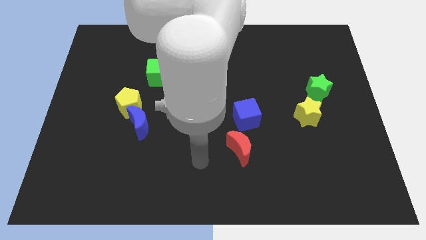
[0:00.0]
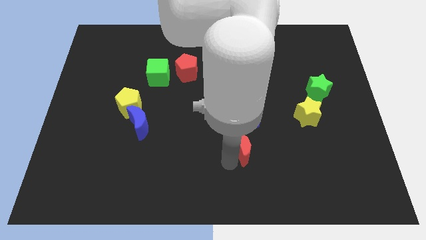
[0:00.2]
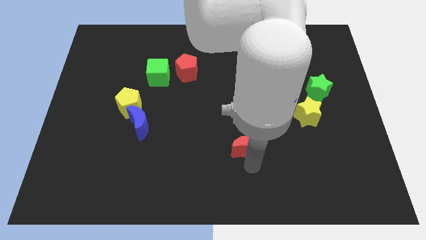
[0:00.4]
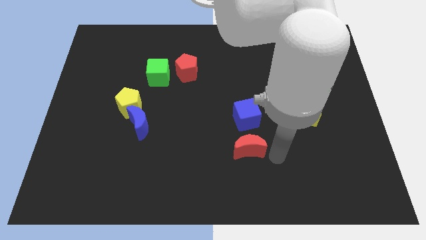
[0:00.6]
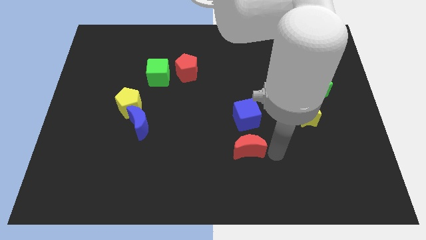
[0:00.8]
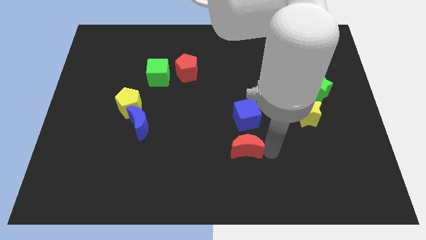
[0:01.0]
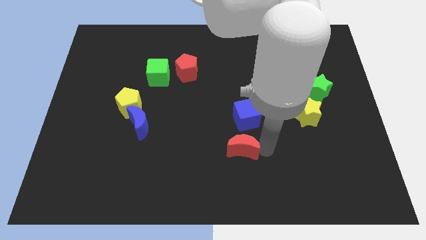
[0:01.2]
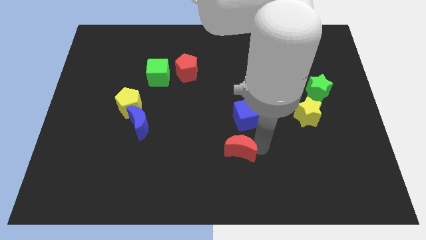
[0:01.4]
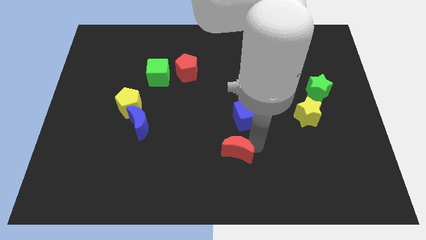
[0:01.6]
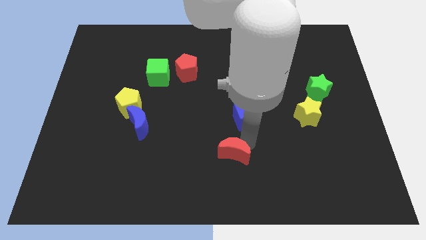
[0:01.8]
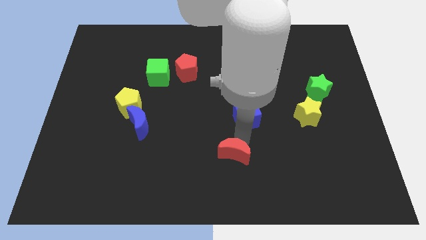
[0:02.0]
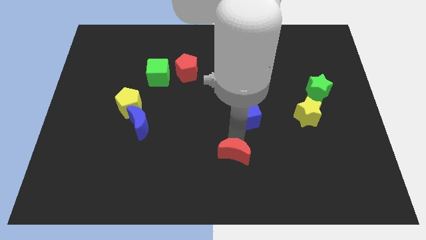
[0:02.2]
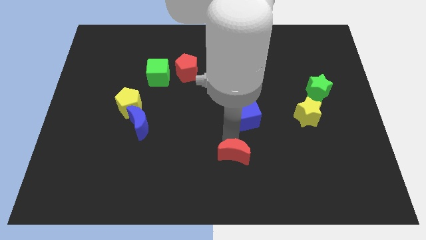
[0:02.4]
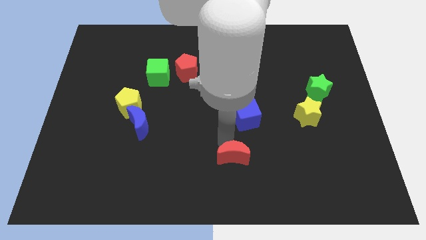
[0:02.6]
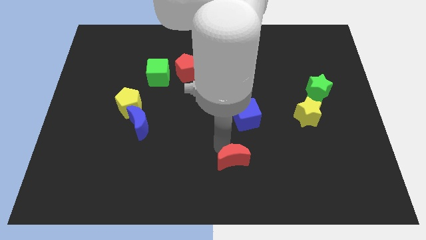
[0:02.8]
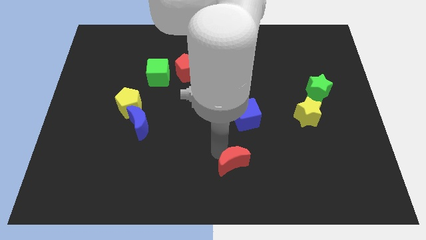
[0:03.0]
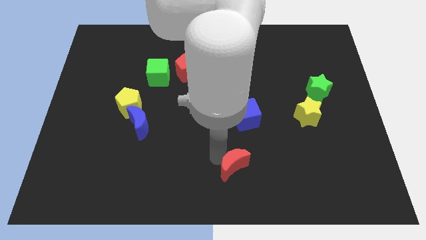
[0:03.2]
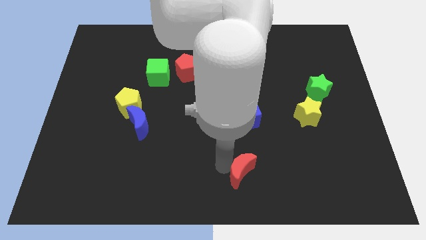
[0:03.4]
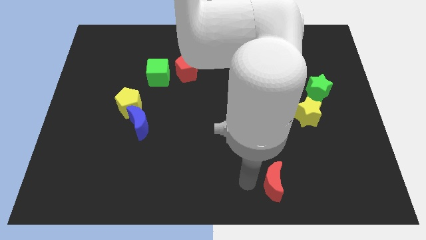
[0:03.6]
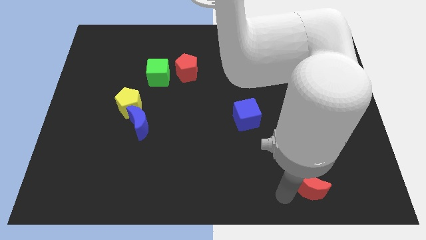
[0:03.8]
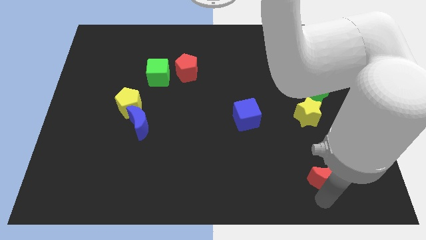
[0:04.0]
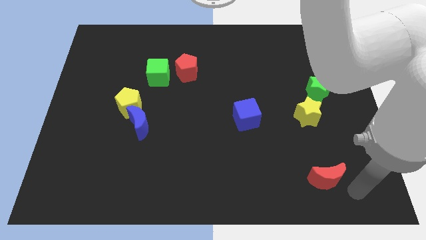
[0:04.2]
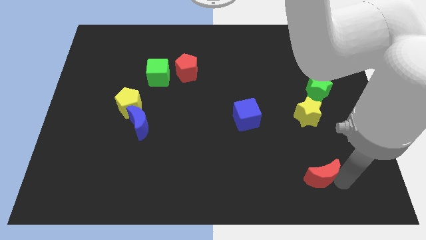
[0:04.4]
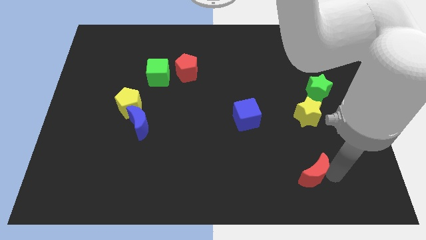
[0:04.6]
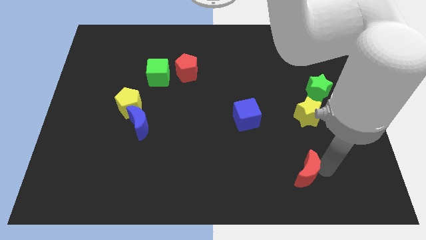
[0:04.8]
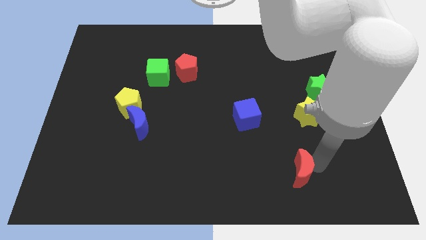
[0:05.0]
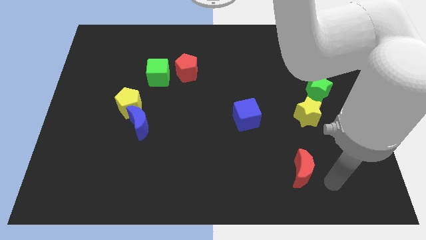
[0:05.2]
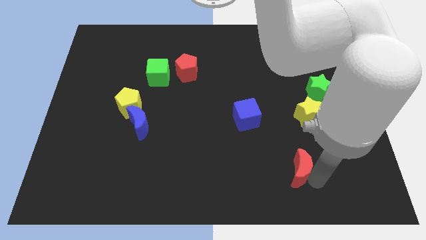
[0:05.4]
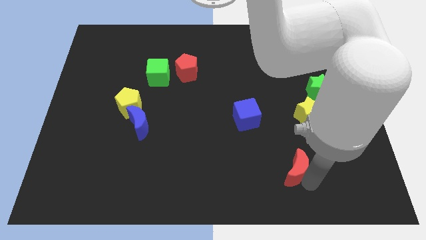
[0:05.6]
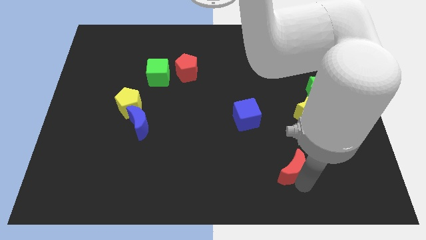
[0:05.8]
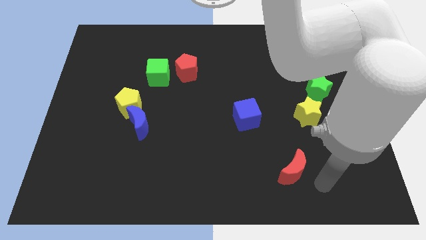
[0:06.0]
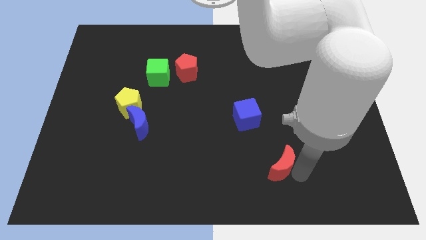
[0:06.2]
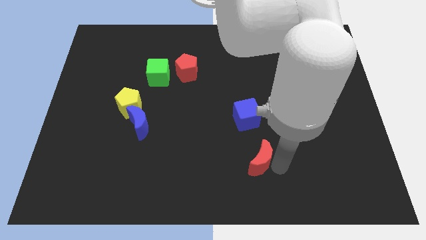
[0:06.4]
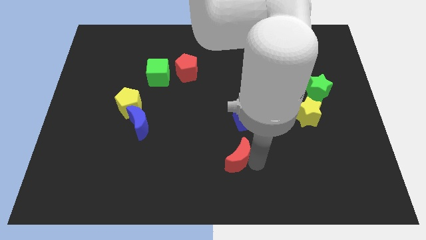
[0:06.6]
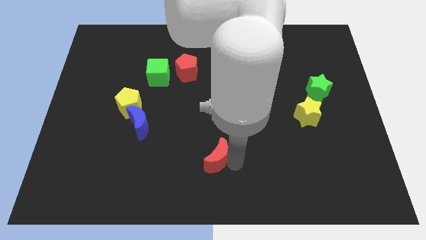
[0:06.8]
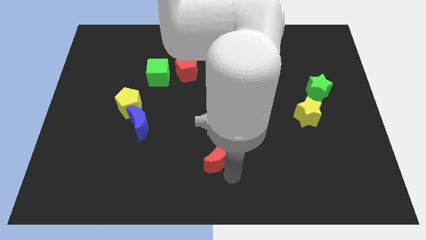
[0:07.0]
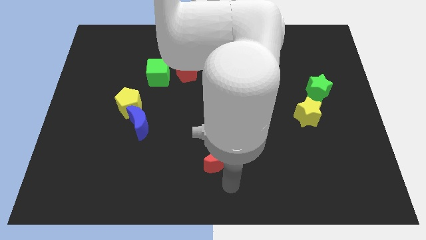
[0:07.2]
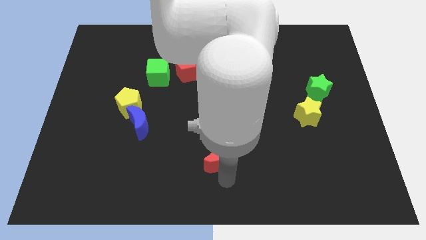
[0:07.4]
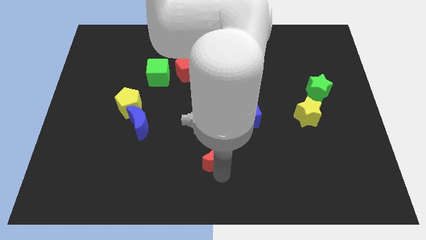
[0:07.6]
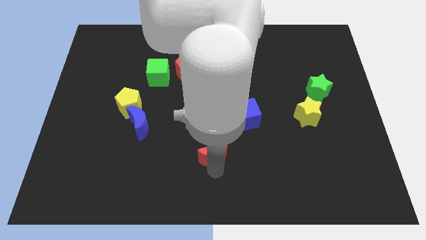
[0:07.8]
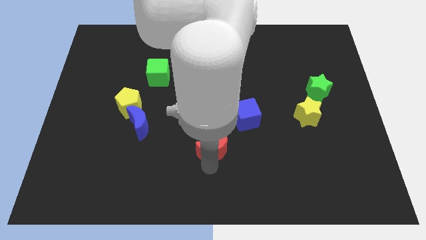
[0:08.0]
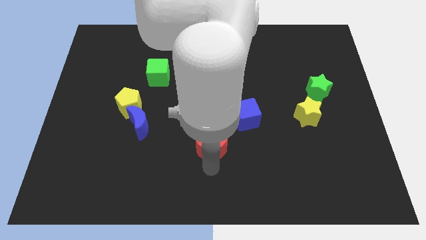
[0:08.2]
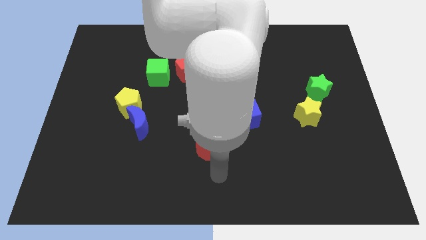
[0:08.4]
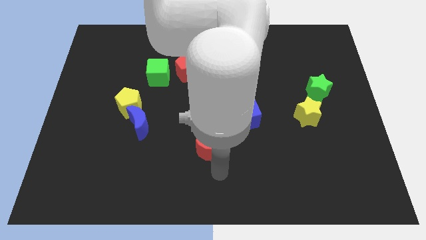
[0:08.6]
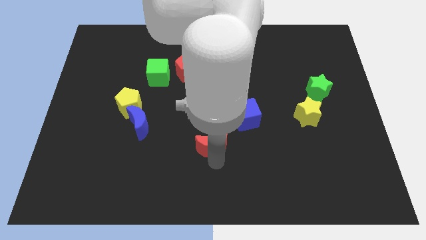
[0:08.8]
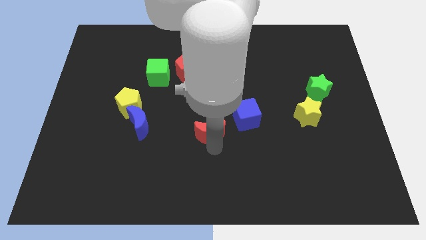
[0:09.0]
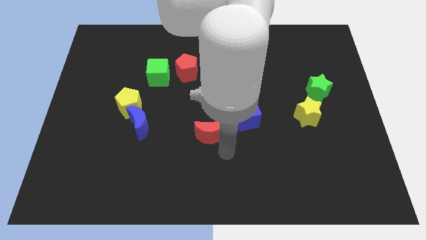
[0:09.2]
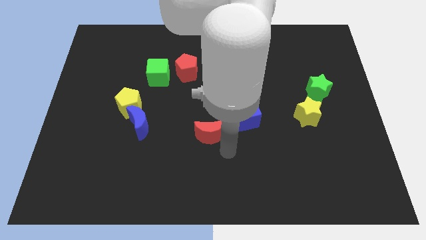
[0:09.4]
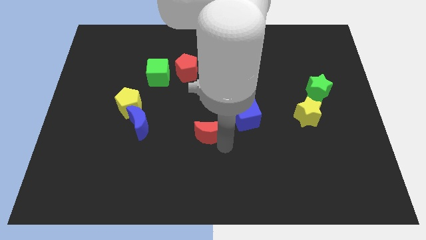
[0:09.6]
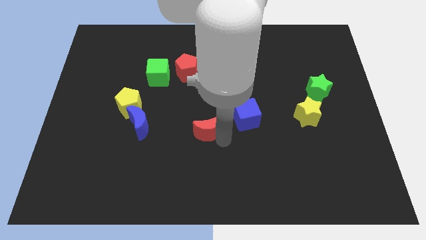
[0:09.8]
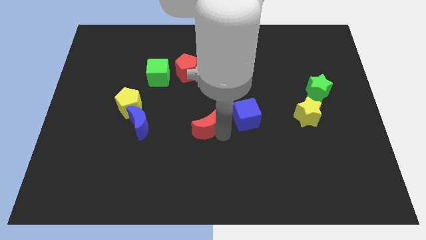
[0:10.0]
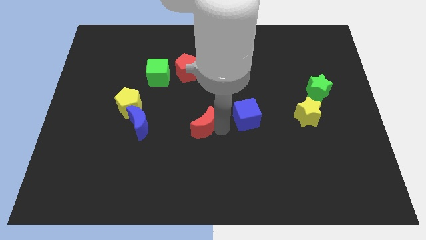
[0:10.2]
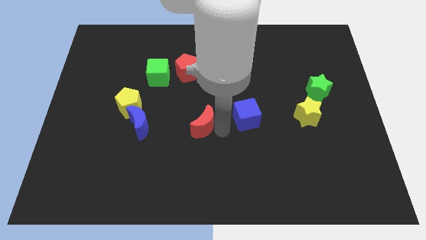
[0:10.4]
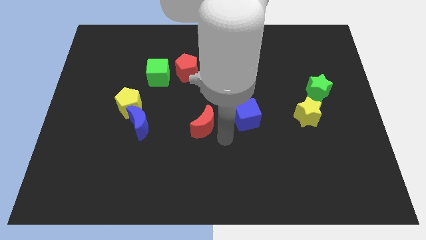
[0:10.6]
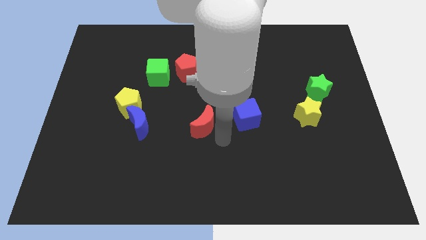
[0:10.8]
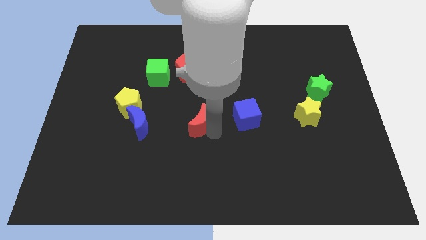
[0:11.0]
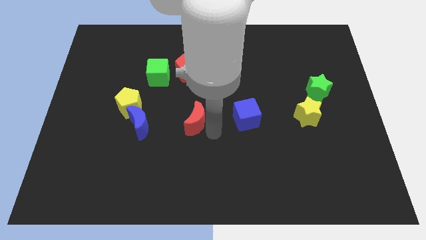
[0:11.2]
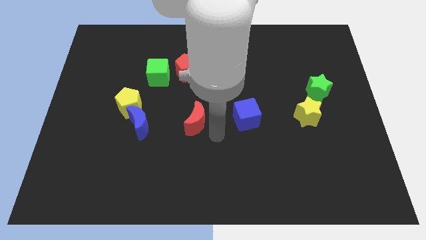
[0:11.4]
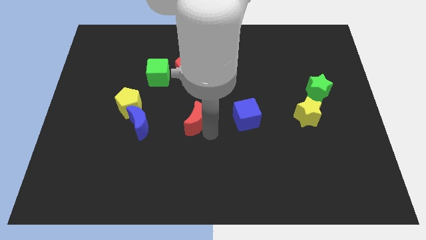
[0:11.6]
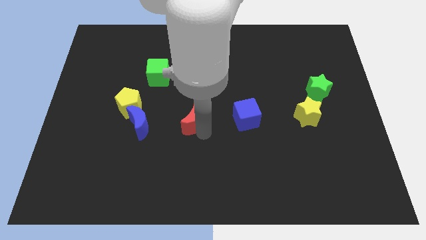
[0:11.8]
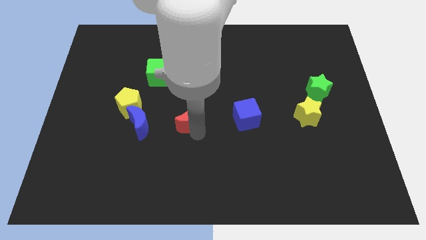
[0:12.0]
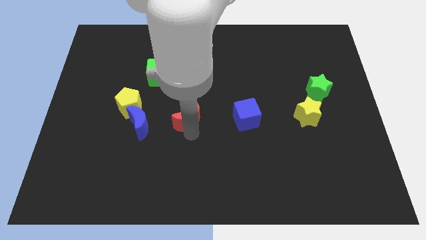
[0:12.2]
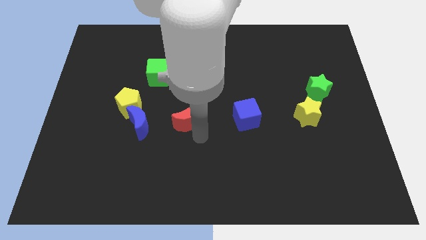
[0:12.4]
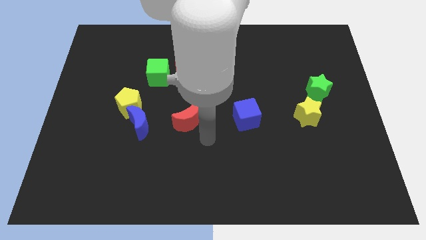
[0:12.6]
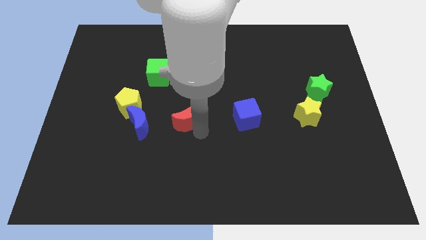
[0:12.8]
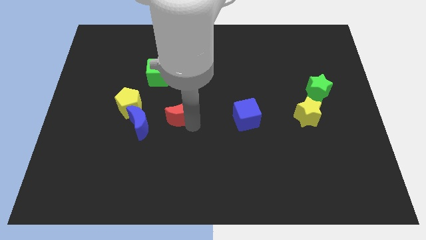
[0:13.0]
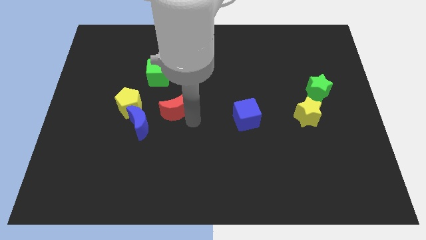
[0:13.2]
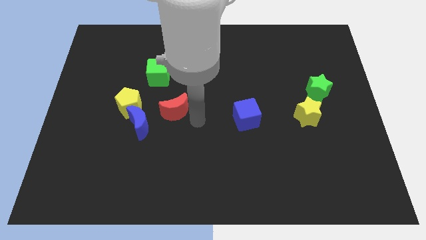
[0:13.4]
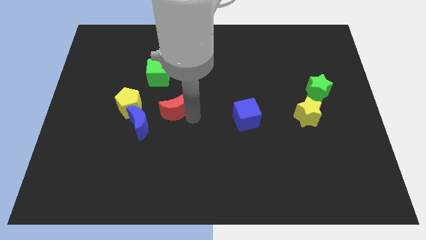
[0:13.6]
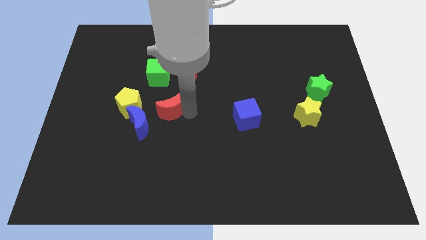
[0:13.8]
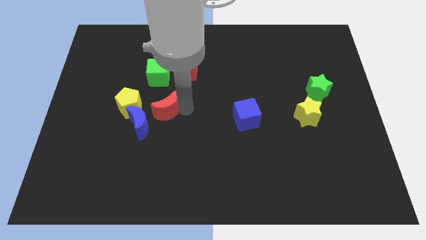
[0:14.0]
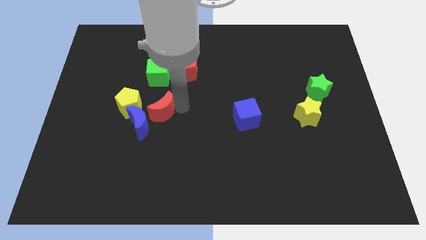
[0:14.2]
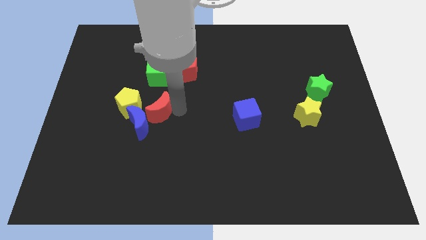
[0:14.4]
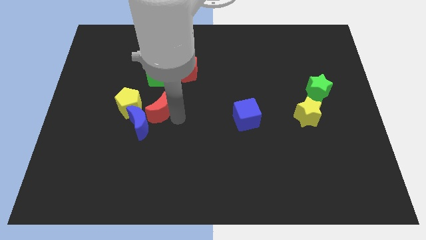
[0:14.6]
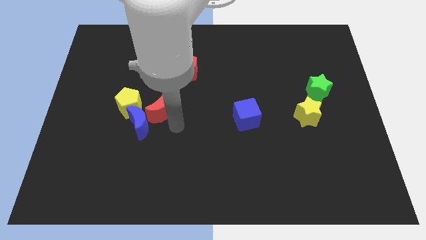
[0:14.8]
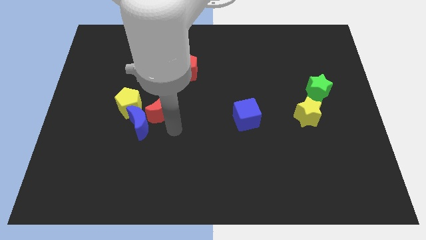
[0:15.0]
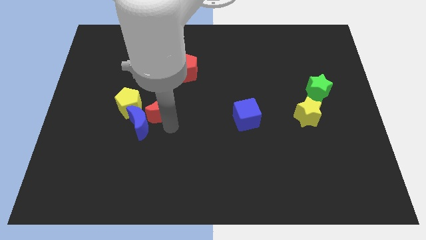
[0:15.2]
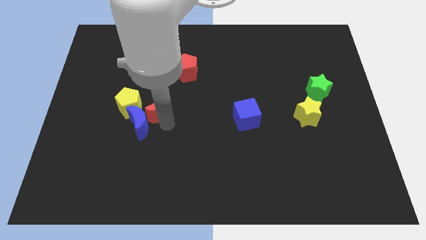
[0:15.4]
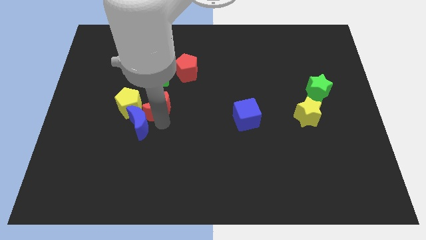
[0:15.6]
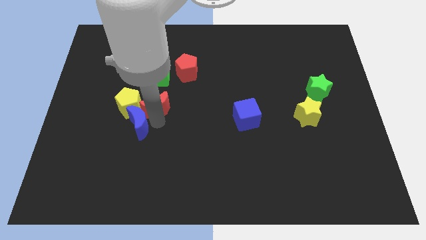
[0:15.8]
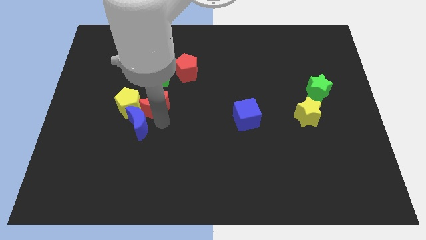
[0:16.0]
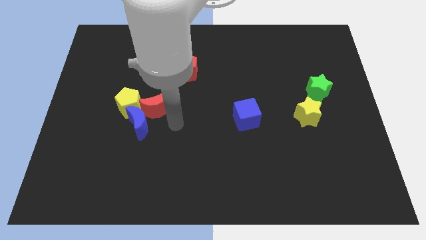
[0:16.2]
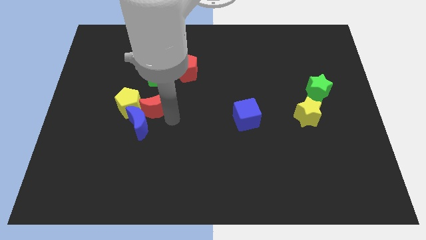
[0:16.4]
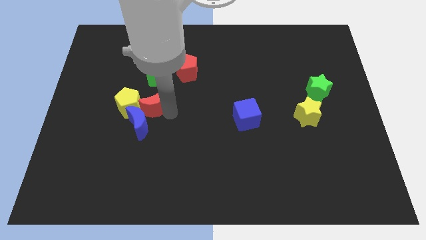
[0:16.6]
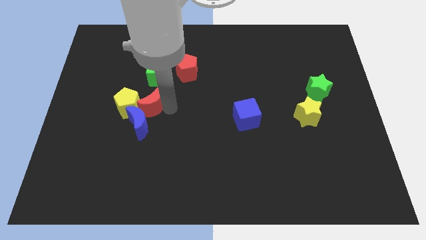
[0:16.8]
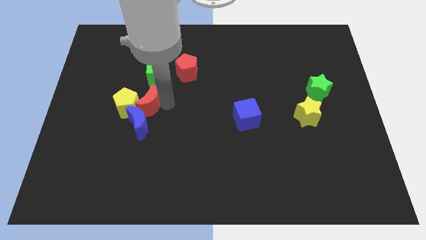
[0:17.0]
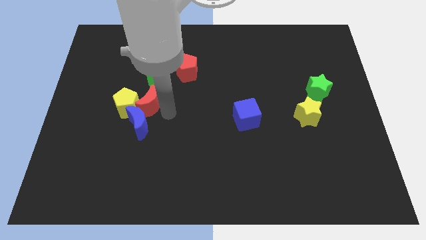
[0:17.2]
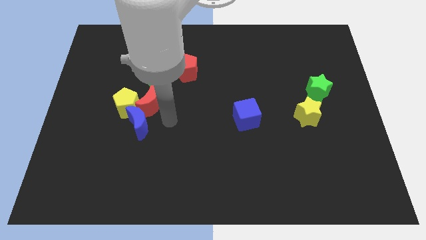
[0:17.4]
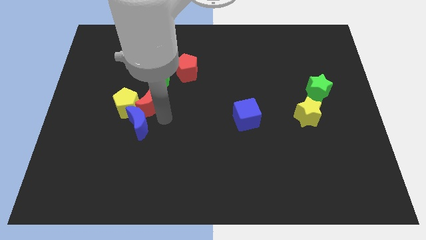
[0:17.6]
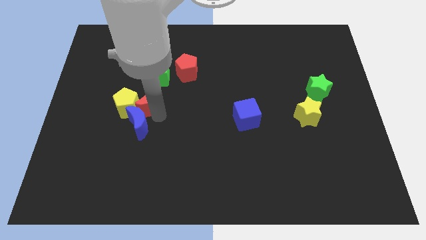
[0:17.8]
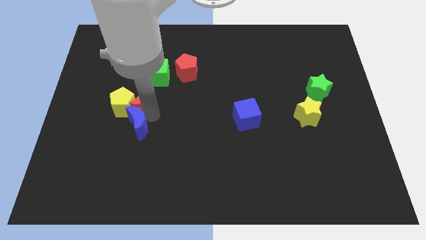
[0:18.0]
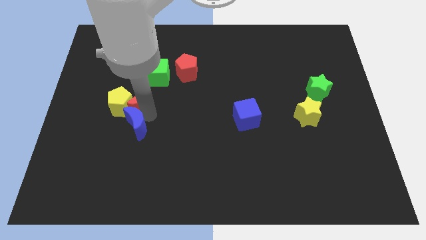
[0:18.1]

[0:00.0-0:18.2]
slide the red moon to the bottom left of the green cube
